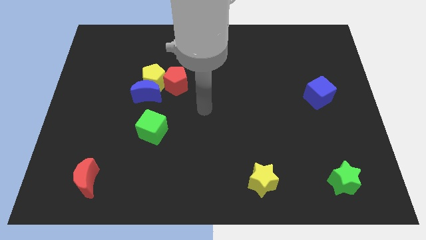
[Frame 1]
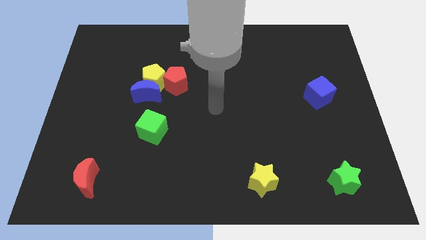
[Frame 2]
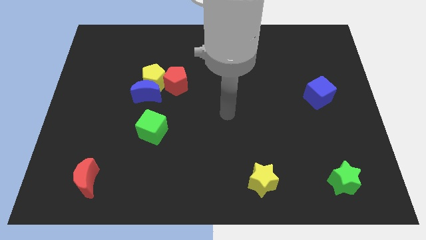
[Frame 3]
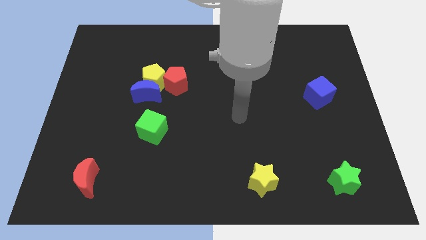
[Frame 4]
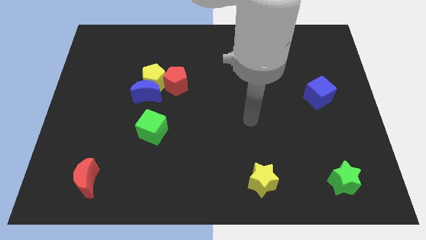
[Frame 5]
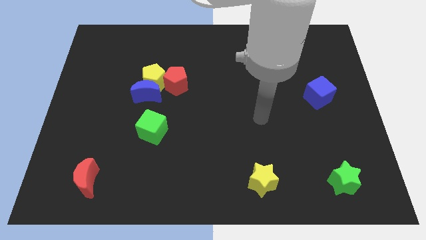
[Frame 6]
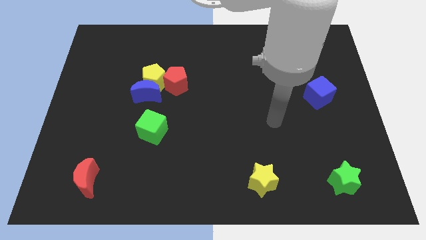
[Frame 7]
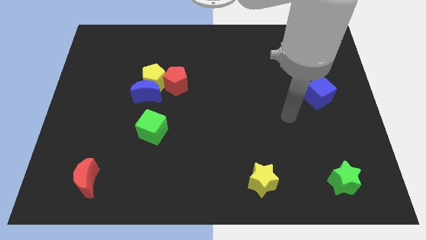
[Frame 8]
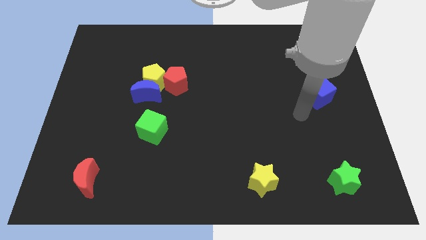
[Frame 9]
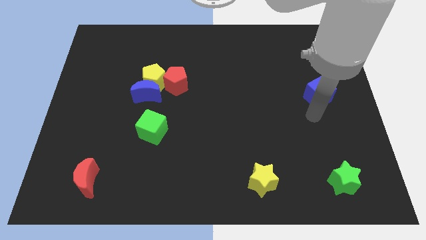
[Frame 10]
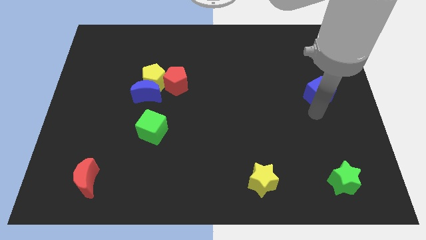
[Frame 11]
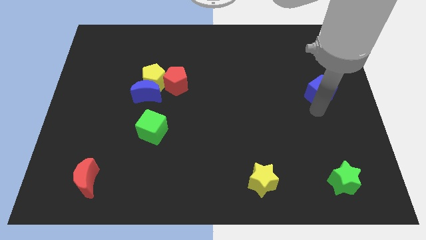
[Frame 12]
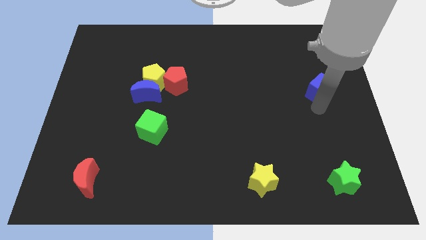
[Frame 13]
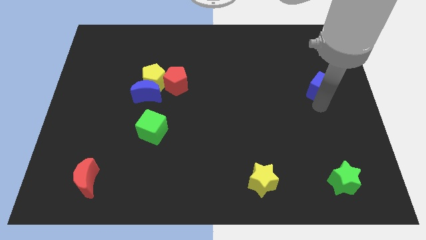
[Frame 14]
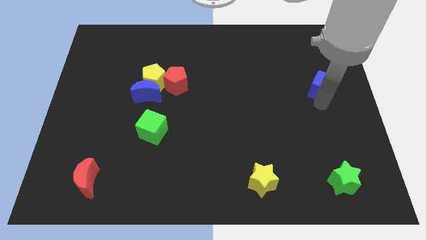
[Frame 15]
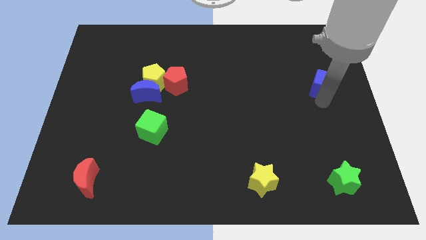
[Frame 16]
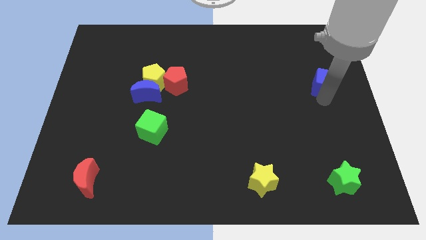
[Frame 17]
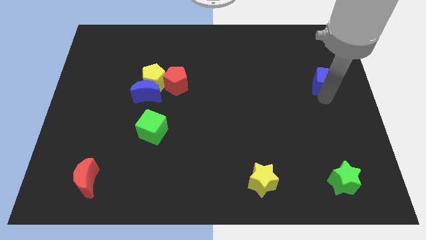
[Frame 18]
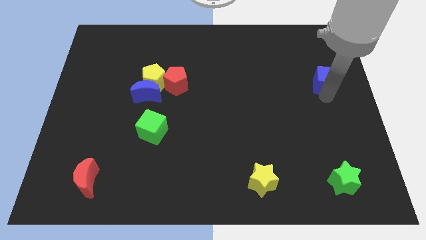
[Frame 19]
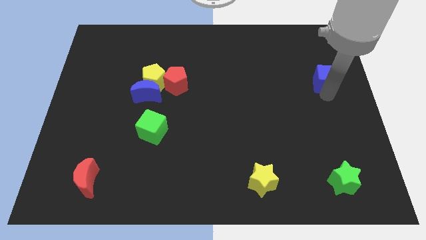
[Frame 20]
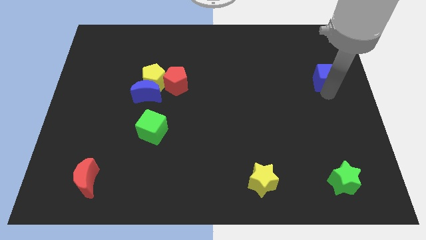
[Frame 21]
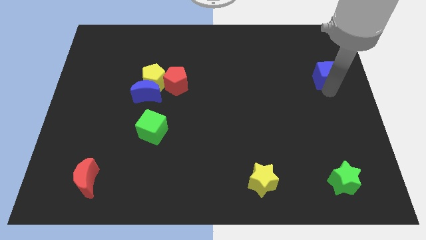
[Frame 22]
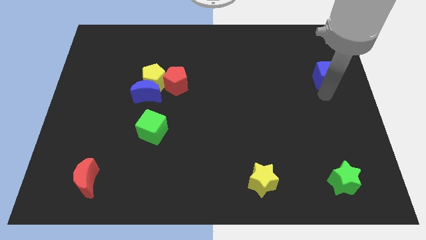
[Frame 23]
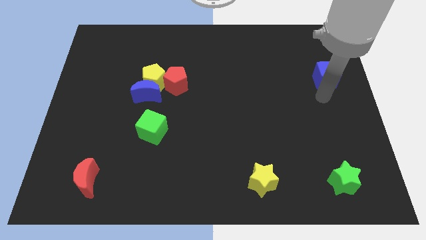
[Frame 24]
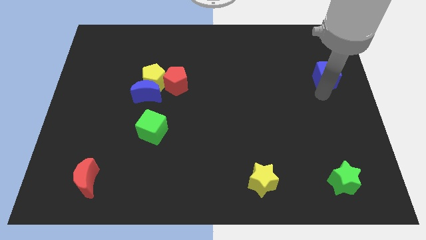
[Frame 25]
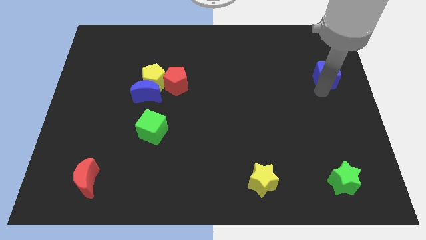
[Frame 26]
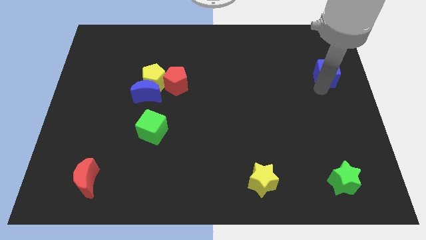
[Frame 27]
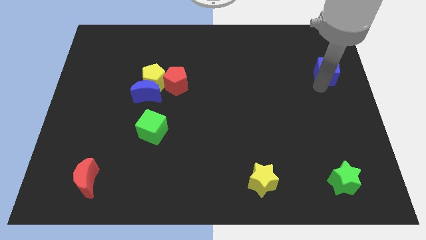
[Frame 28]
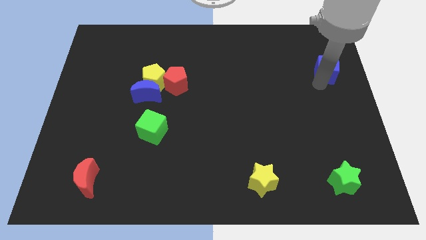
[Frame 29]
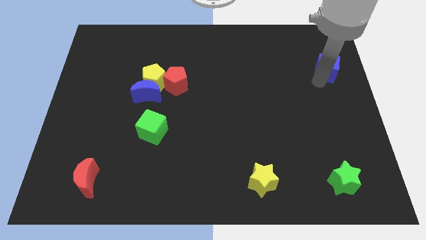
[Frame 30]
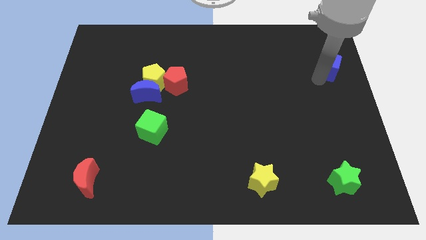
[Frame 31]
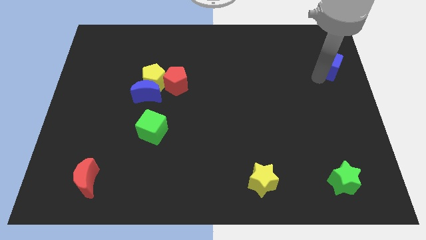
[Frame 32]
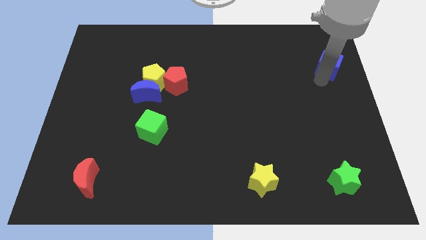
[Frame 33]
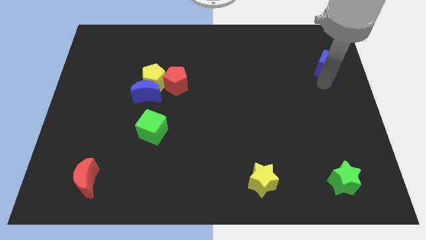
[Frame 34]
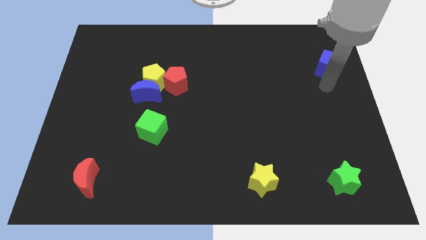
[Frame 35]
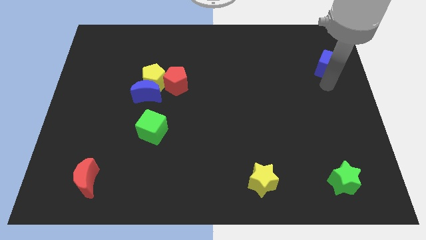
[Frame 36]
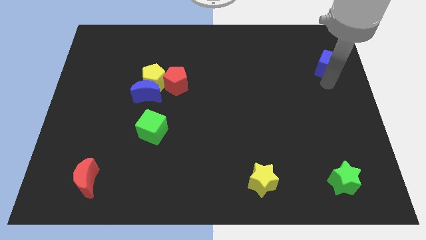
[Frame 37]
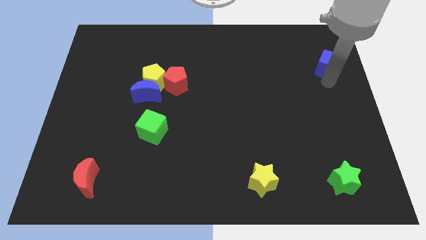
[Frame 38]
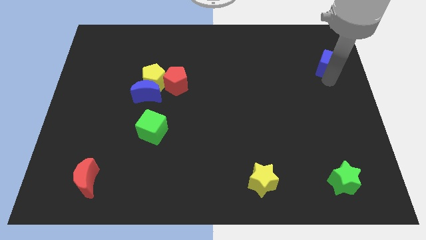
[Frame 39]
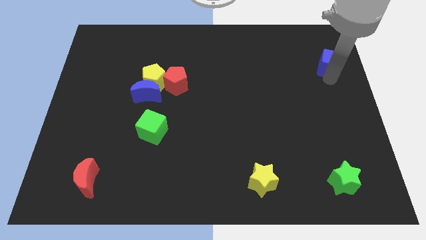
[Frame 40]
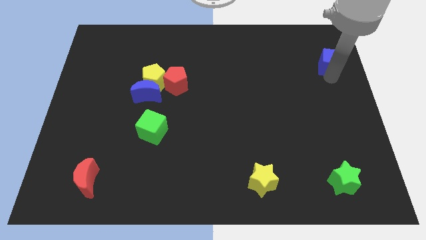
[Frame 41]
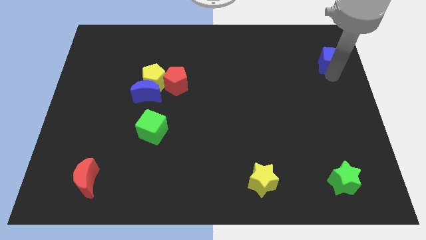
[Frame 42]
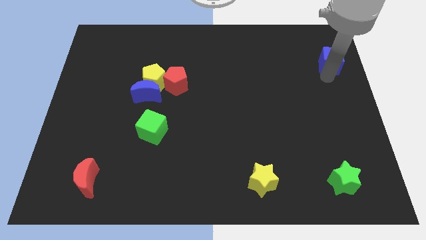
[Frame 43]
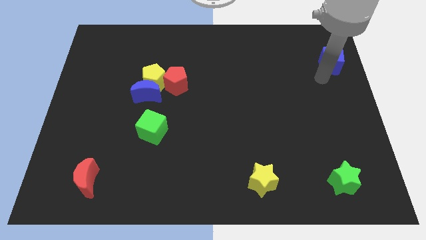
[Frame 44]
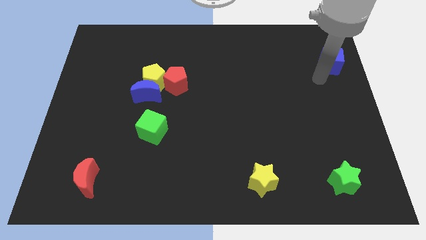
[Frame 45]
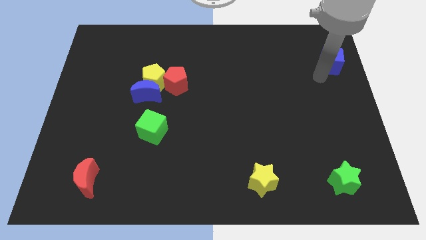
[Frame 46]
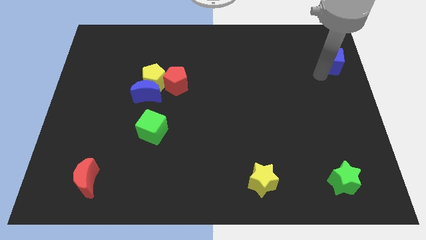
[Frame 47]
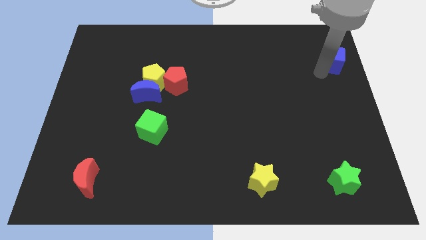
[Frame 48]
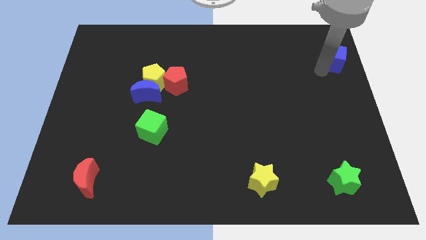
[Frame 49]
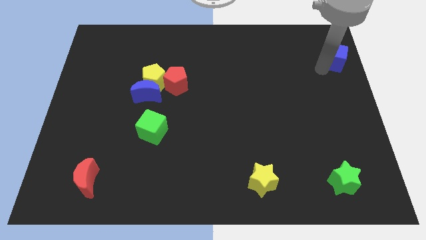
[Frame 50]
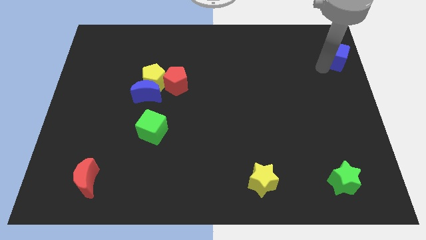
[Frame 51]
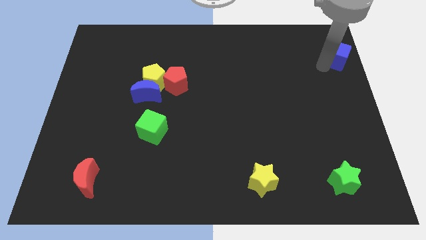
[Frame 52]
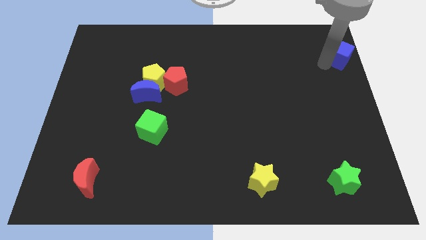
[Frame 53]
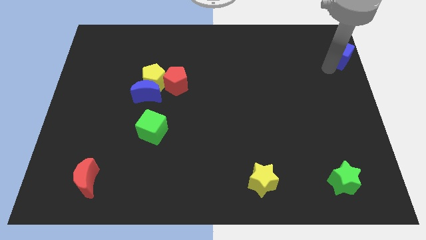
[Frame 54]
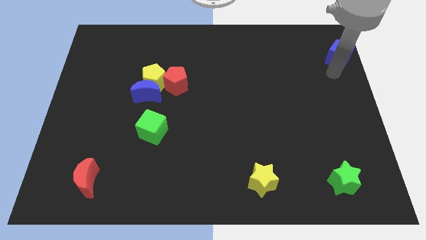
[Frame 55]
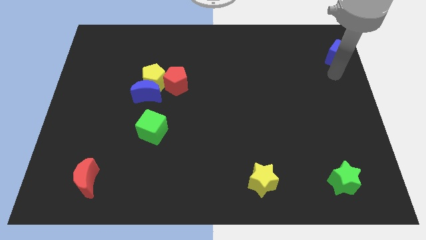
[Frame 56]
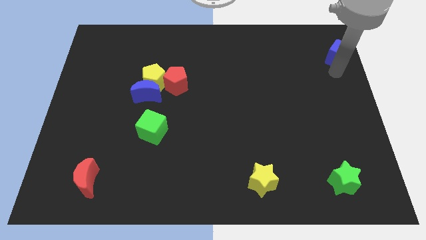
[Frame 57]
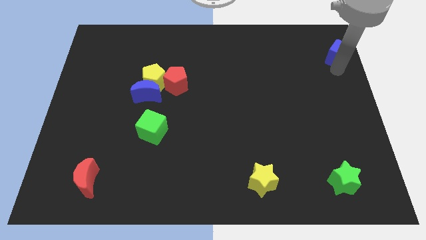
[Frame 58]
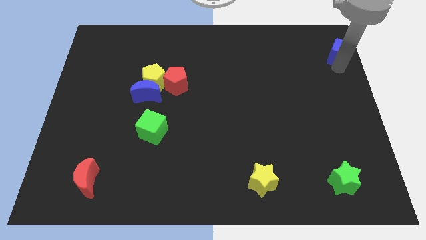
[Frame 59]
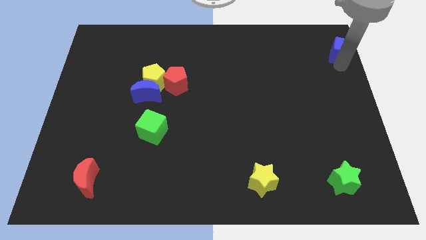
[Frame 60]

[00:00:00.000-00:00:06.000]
push the blue cube to the top right

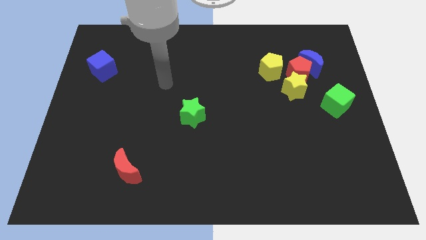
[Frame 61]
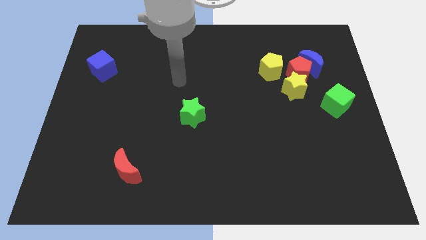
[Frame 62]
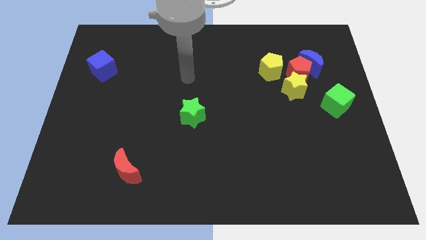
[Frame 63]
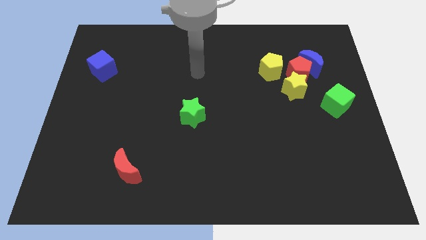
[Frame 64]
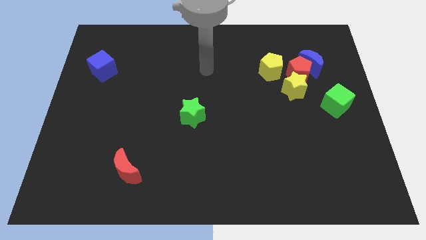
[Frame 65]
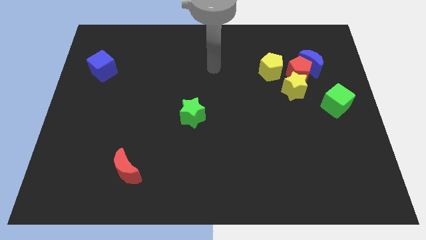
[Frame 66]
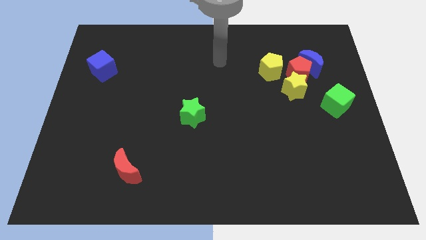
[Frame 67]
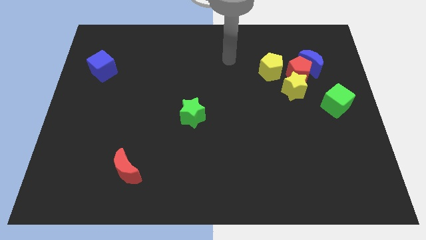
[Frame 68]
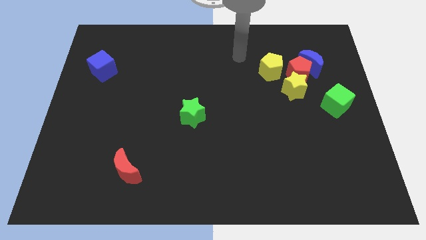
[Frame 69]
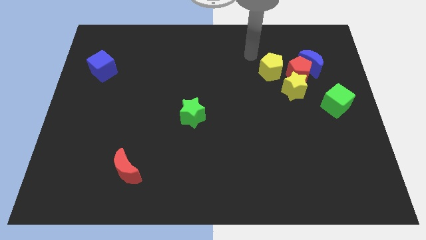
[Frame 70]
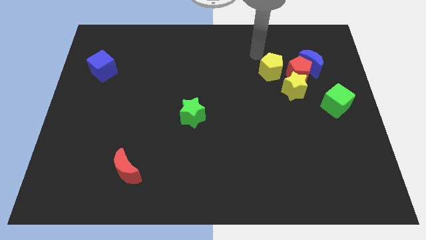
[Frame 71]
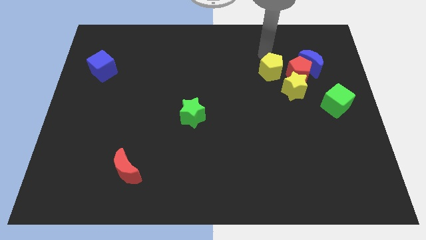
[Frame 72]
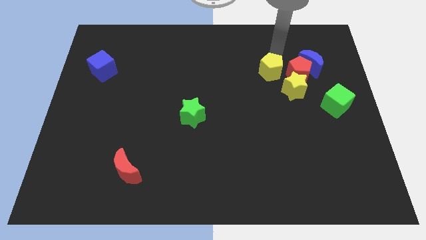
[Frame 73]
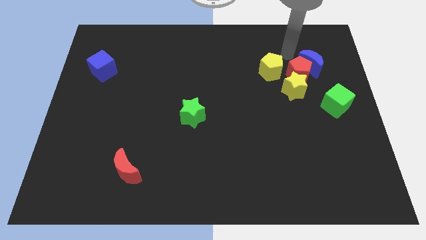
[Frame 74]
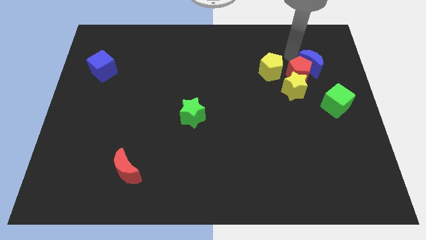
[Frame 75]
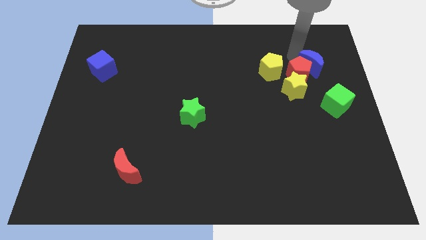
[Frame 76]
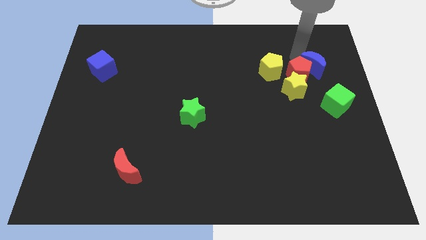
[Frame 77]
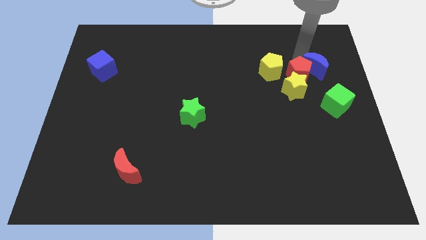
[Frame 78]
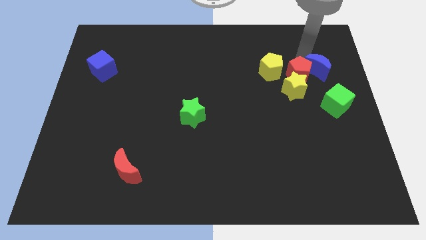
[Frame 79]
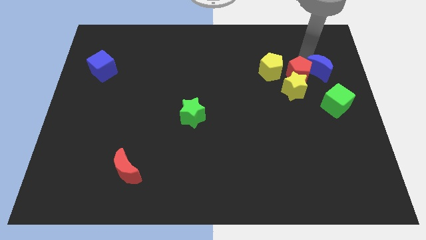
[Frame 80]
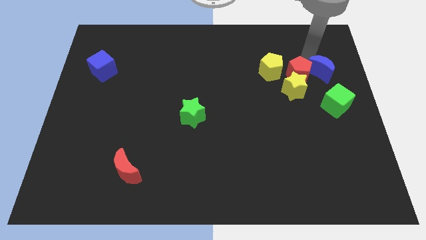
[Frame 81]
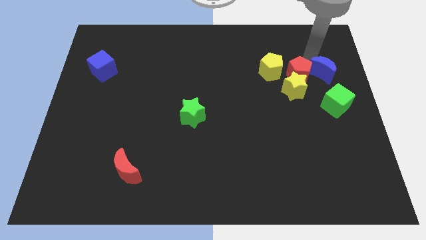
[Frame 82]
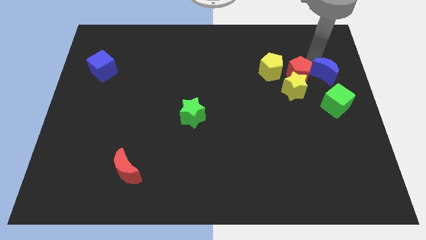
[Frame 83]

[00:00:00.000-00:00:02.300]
push the blue moon to the center right
